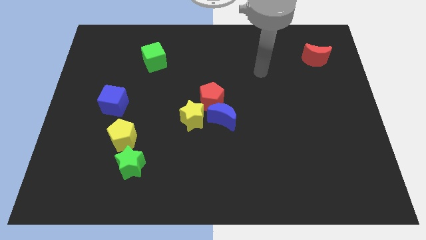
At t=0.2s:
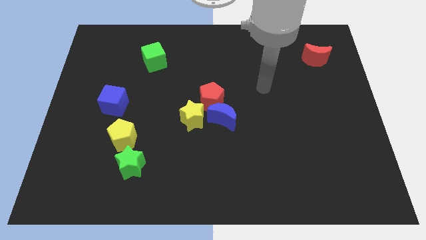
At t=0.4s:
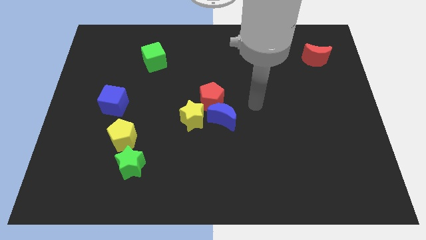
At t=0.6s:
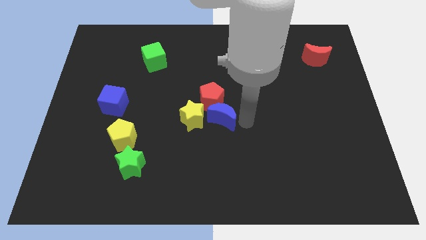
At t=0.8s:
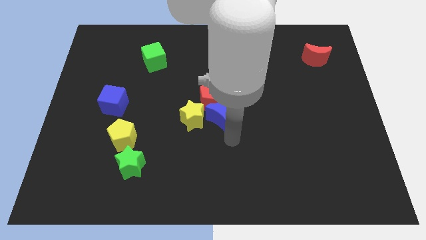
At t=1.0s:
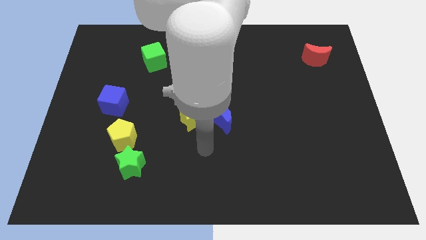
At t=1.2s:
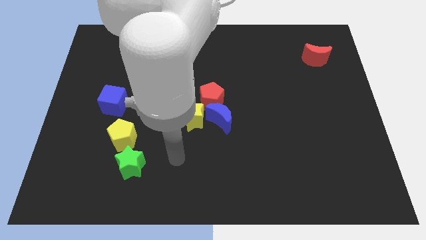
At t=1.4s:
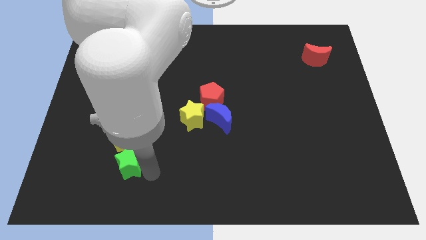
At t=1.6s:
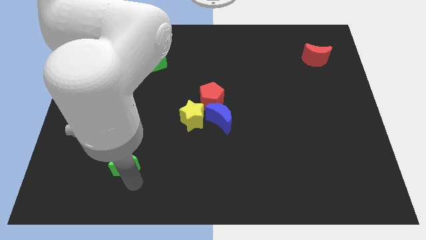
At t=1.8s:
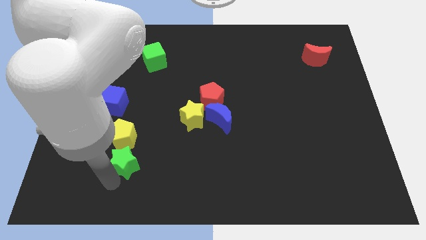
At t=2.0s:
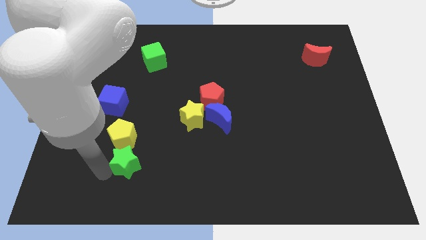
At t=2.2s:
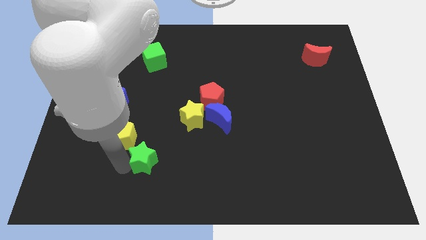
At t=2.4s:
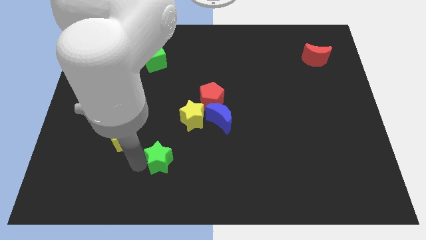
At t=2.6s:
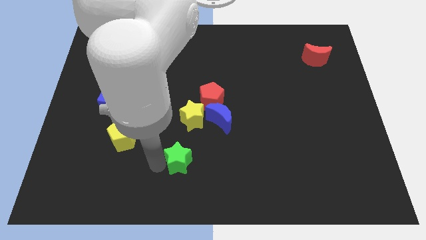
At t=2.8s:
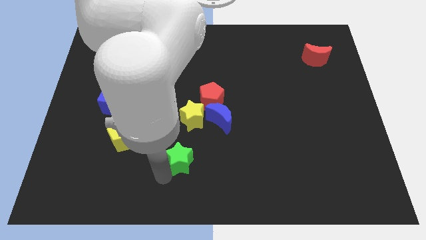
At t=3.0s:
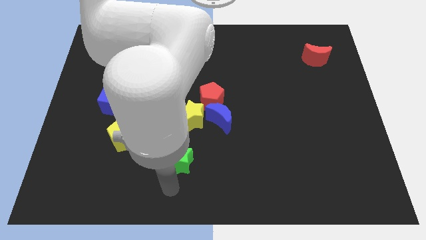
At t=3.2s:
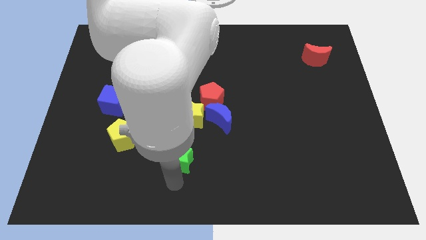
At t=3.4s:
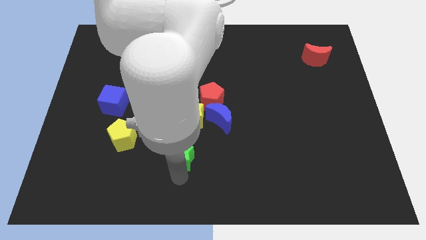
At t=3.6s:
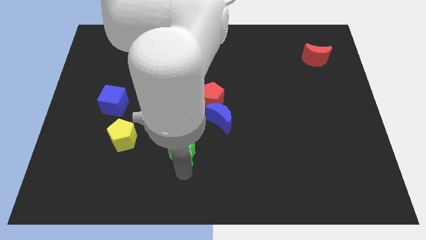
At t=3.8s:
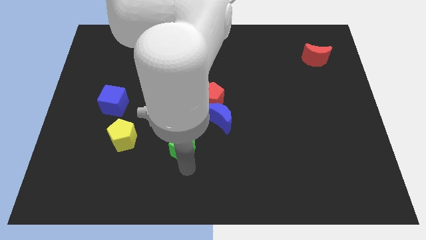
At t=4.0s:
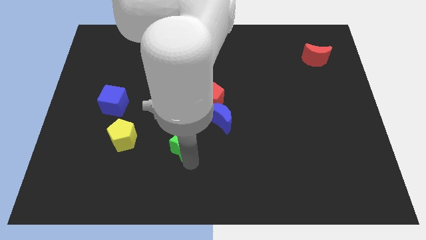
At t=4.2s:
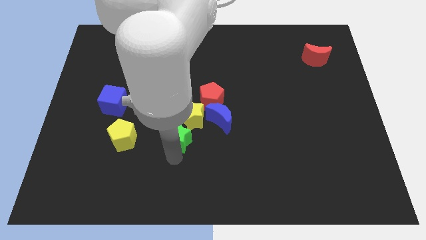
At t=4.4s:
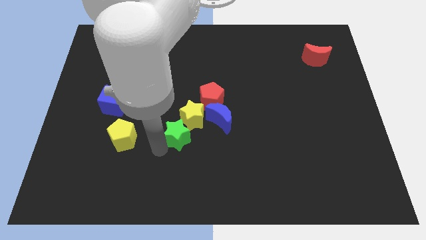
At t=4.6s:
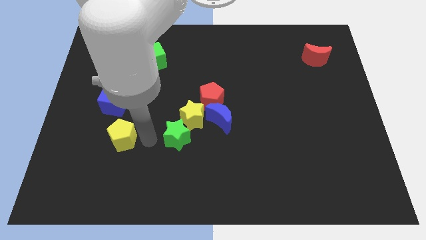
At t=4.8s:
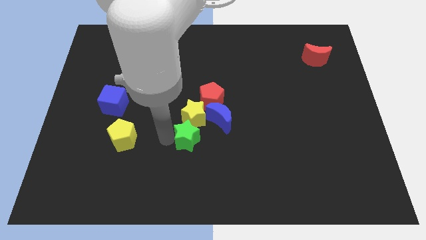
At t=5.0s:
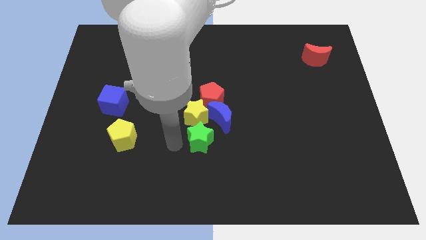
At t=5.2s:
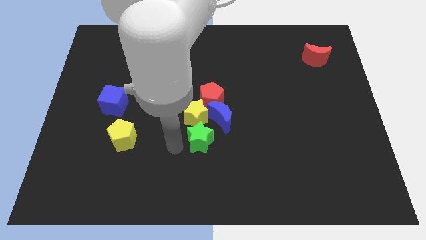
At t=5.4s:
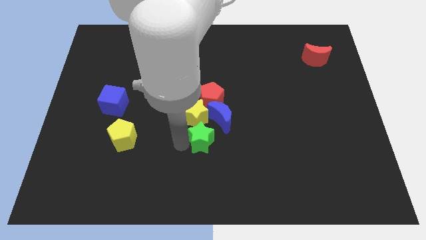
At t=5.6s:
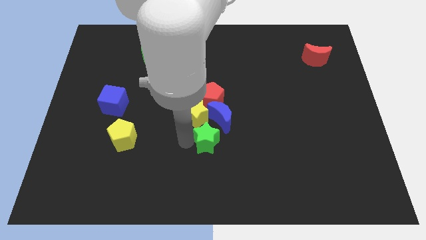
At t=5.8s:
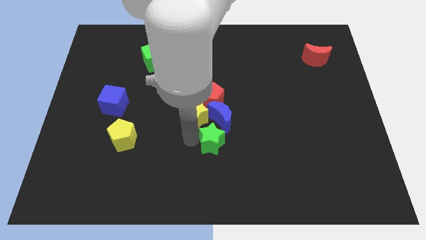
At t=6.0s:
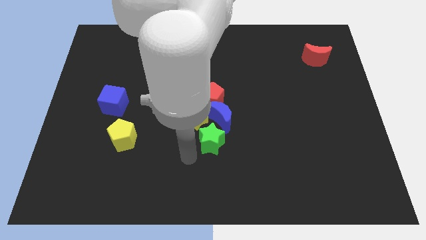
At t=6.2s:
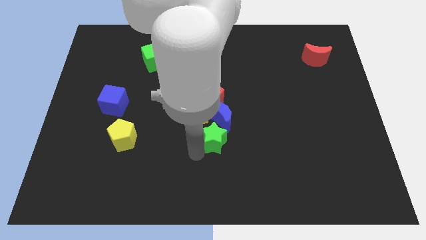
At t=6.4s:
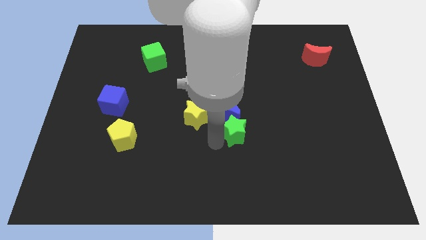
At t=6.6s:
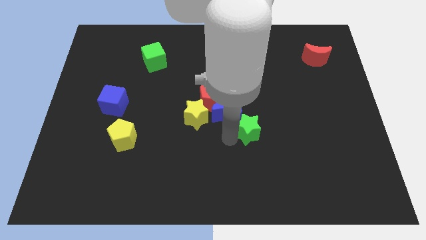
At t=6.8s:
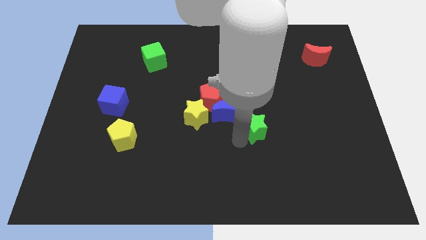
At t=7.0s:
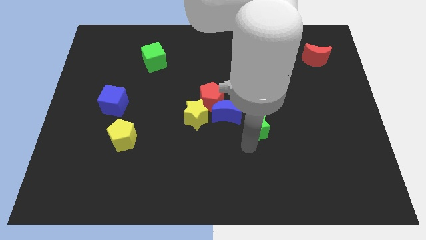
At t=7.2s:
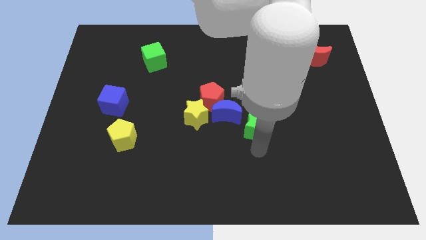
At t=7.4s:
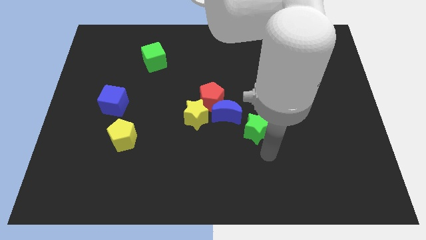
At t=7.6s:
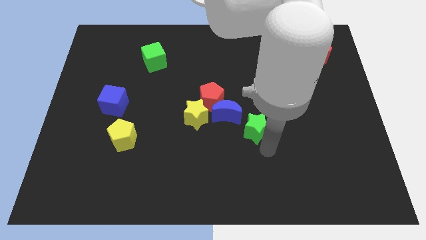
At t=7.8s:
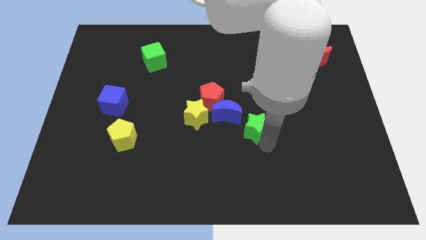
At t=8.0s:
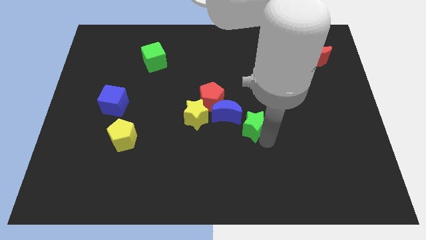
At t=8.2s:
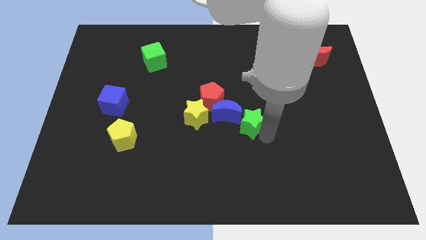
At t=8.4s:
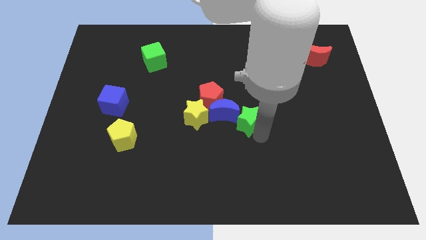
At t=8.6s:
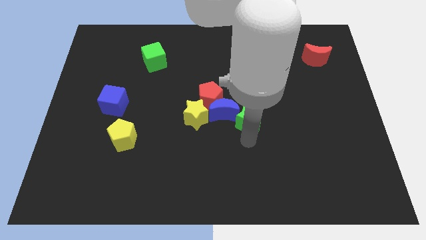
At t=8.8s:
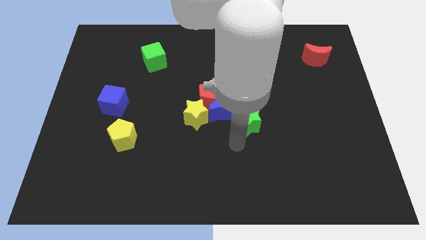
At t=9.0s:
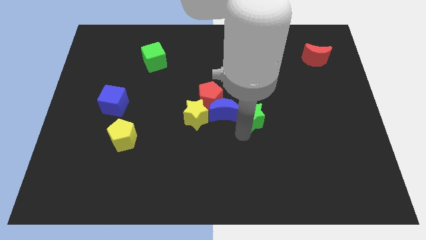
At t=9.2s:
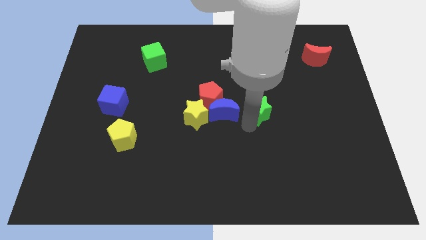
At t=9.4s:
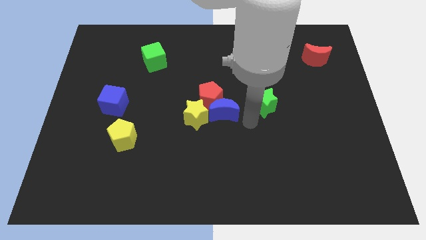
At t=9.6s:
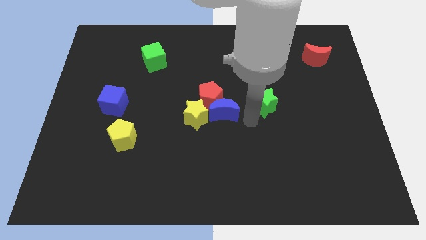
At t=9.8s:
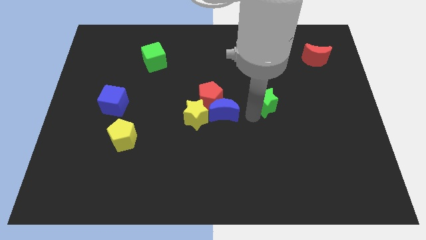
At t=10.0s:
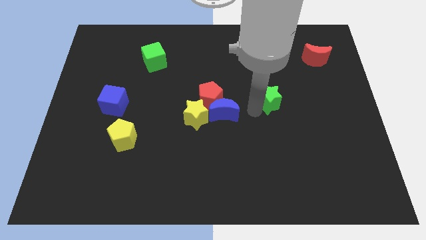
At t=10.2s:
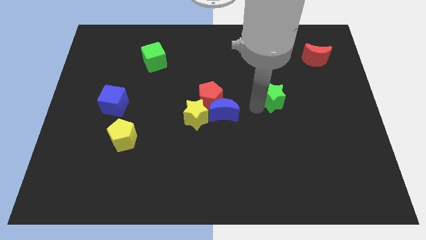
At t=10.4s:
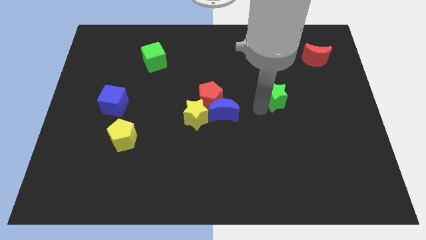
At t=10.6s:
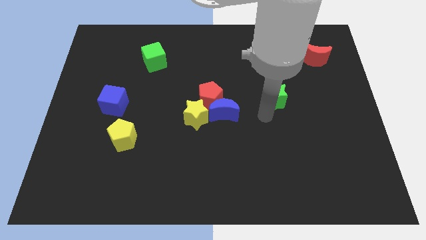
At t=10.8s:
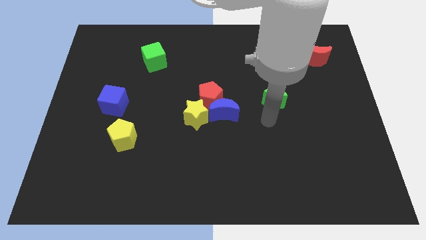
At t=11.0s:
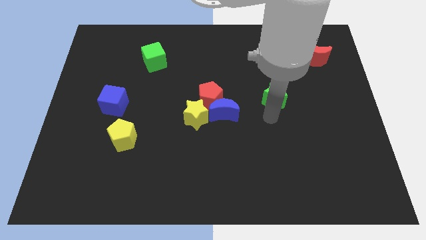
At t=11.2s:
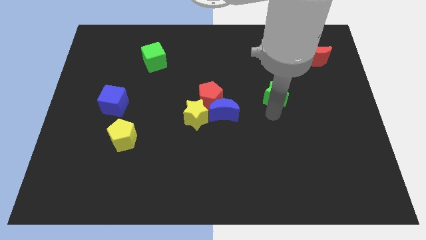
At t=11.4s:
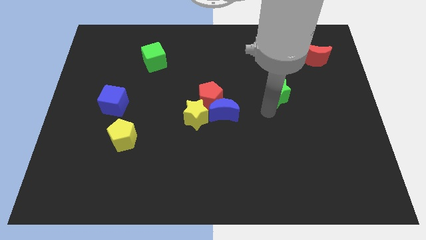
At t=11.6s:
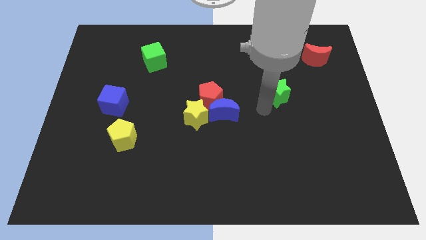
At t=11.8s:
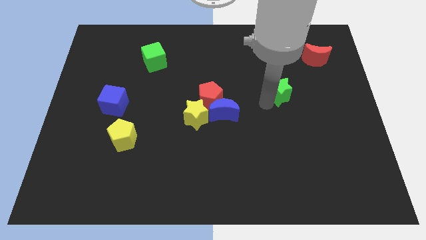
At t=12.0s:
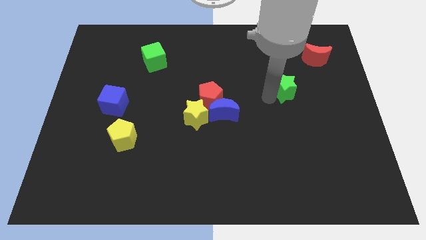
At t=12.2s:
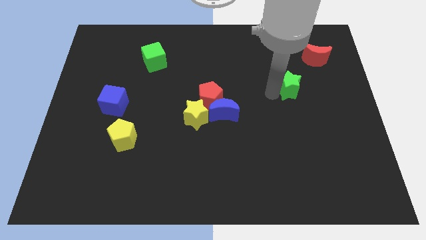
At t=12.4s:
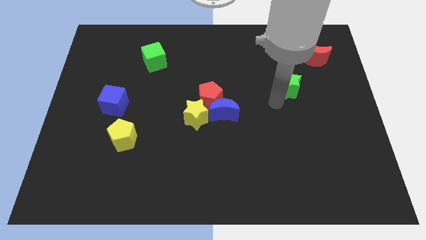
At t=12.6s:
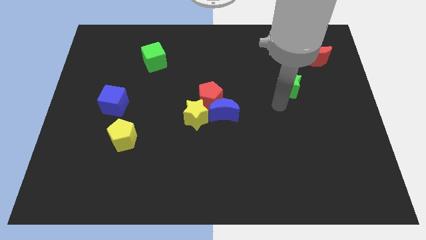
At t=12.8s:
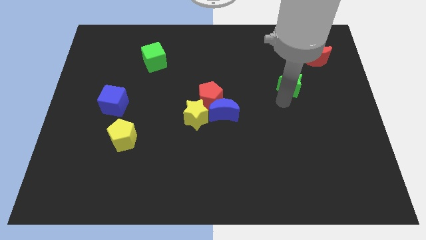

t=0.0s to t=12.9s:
put the green star to the bottom left of the red moon
